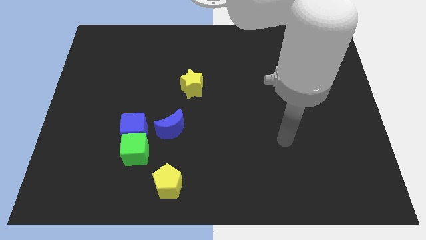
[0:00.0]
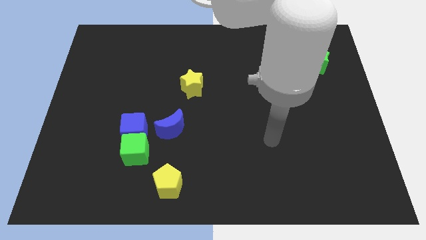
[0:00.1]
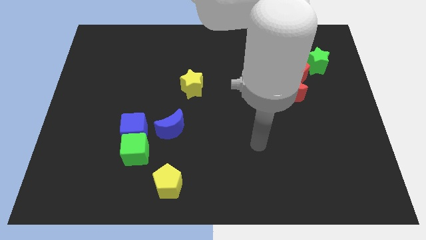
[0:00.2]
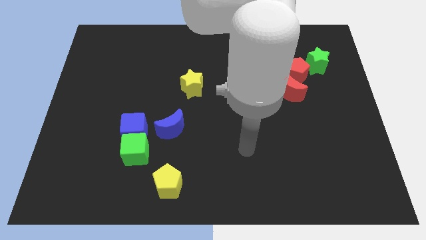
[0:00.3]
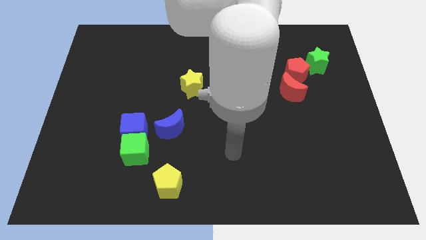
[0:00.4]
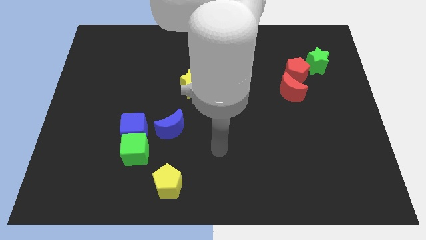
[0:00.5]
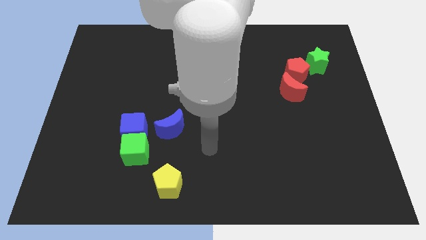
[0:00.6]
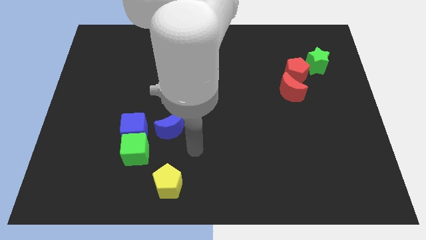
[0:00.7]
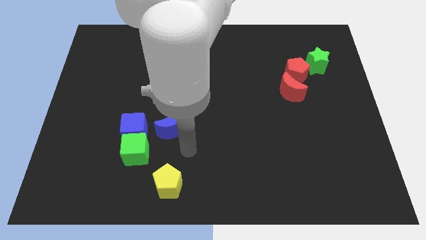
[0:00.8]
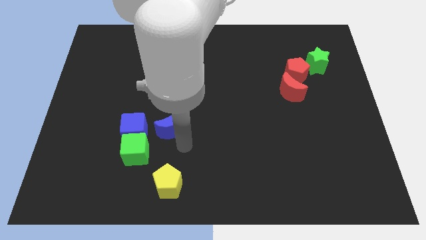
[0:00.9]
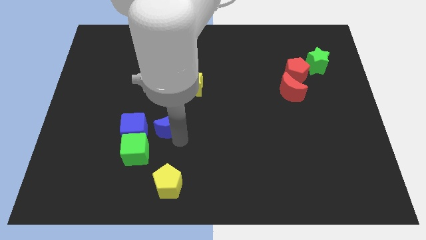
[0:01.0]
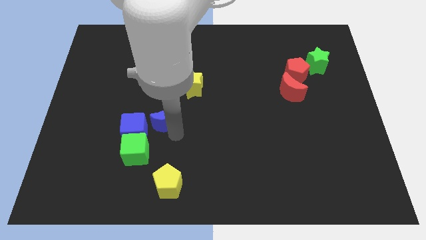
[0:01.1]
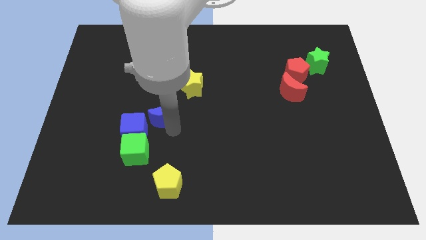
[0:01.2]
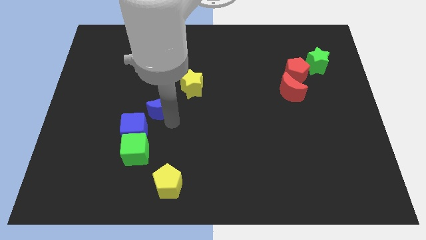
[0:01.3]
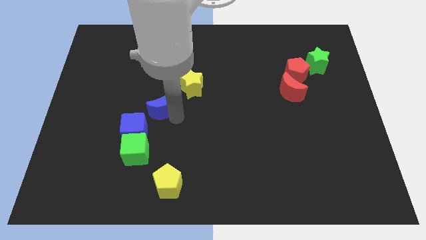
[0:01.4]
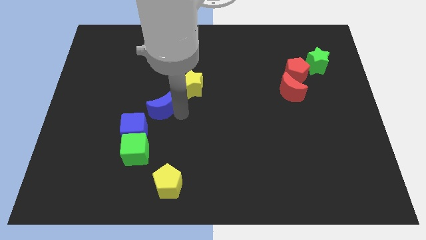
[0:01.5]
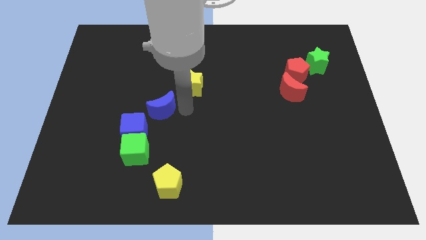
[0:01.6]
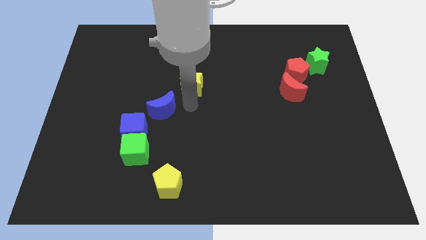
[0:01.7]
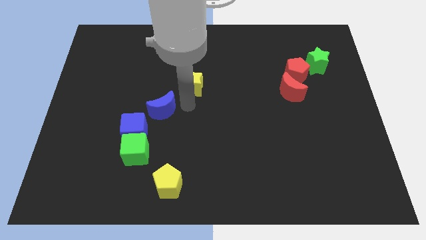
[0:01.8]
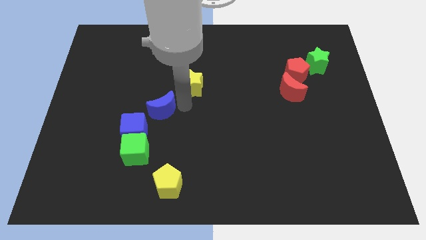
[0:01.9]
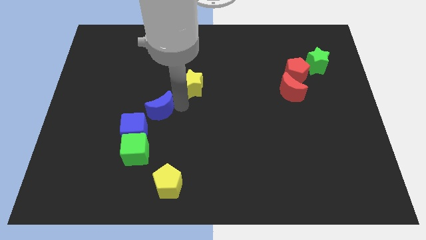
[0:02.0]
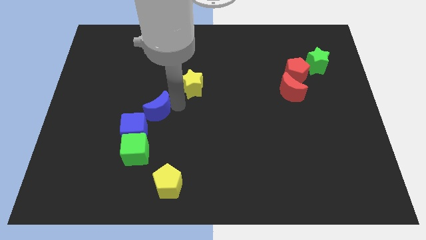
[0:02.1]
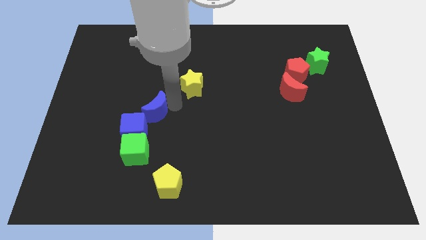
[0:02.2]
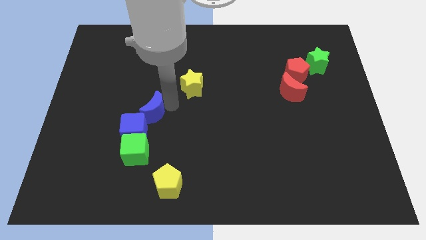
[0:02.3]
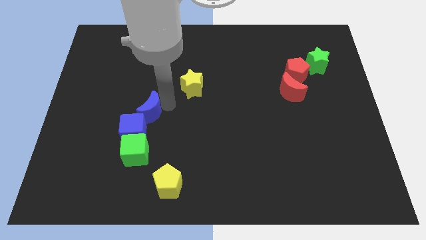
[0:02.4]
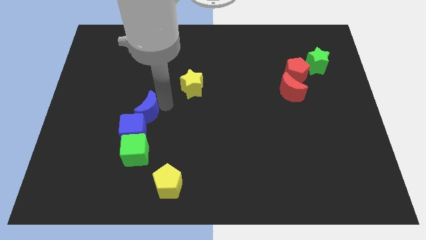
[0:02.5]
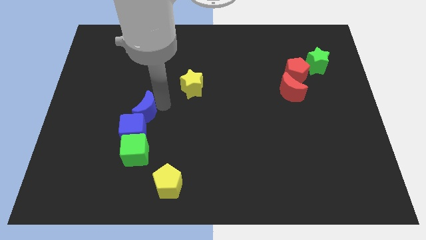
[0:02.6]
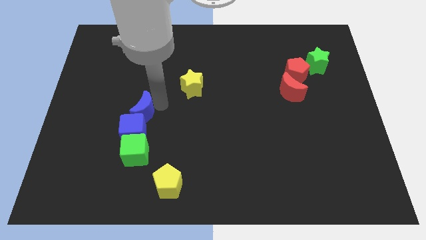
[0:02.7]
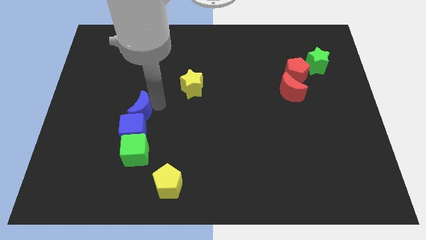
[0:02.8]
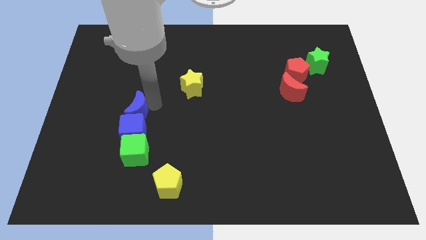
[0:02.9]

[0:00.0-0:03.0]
move the blue moon somewhat to the left

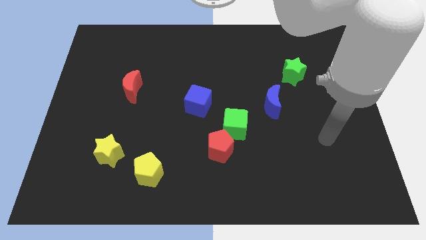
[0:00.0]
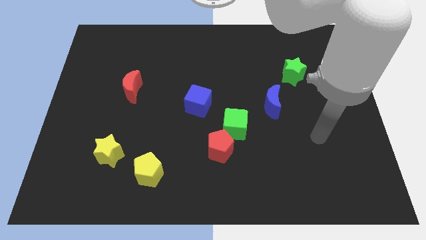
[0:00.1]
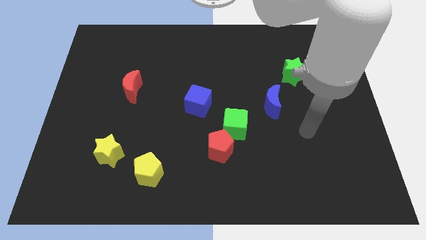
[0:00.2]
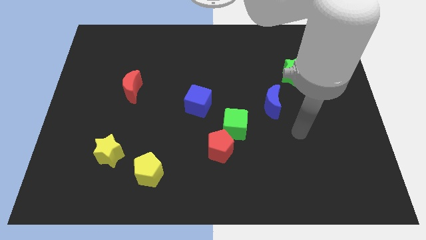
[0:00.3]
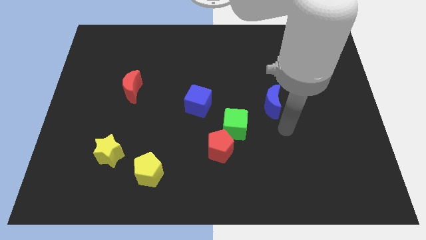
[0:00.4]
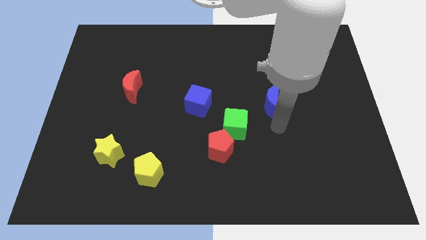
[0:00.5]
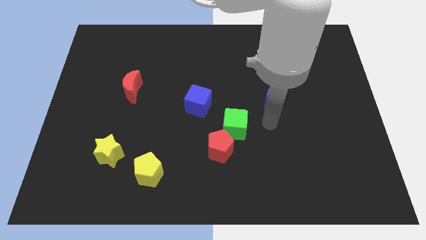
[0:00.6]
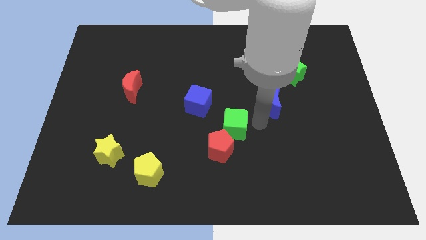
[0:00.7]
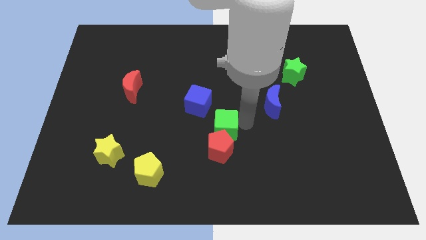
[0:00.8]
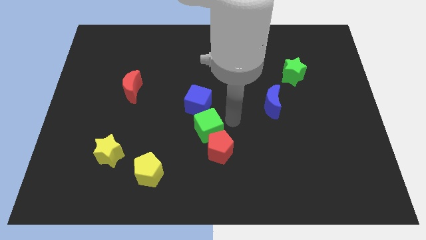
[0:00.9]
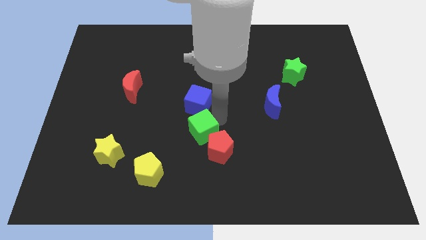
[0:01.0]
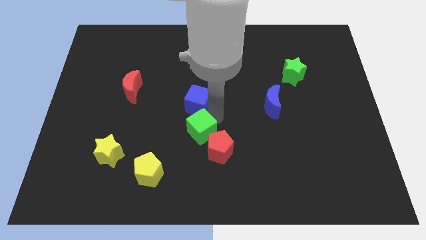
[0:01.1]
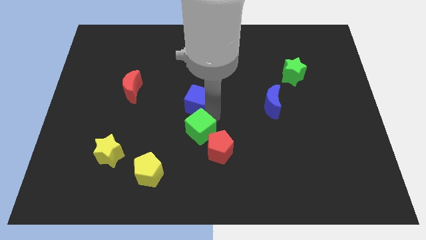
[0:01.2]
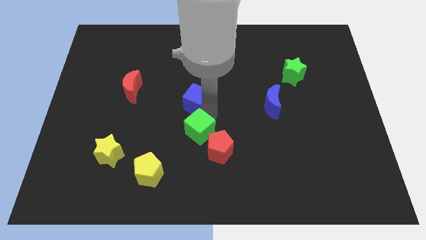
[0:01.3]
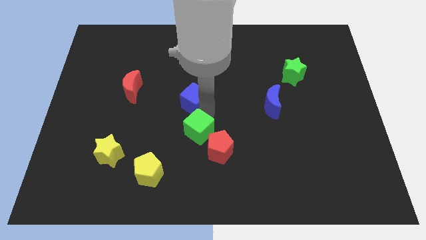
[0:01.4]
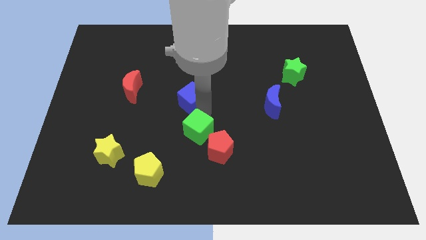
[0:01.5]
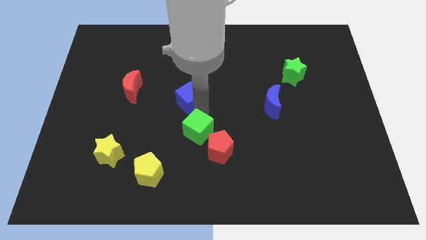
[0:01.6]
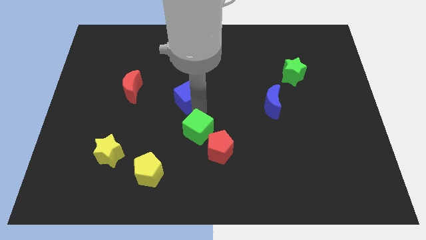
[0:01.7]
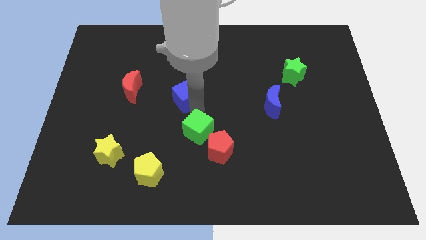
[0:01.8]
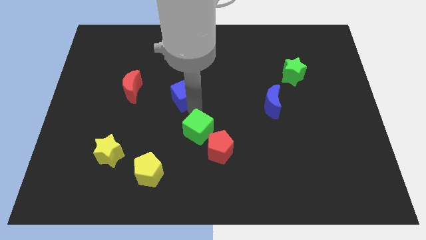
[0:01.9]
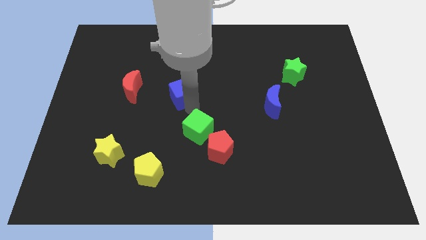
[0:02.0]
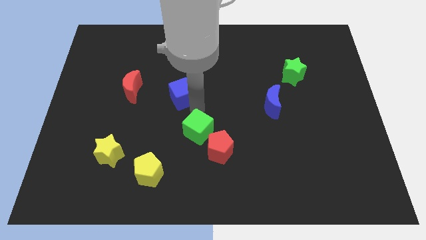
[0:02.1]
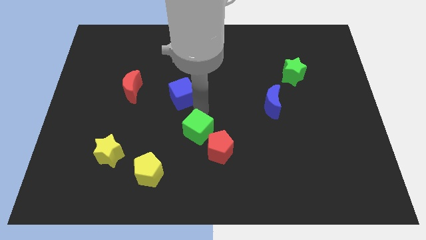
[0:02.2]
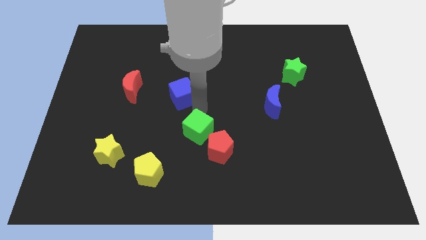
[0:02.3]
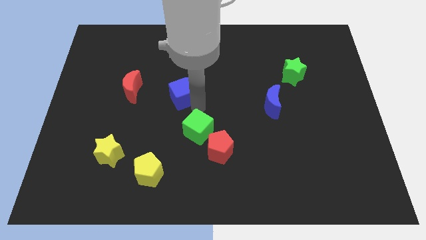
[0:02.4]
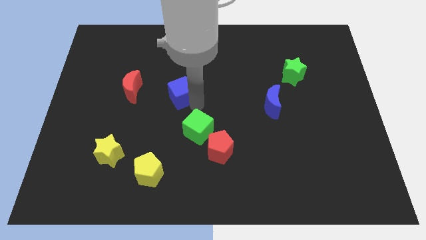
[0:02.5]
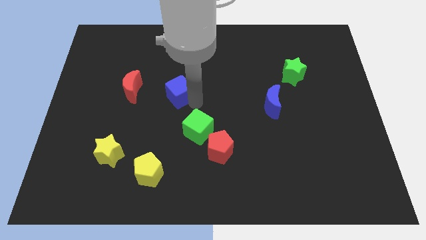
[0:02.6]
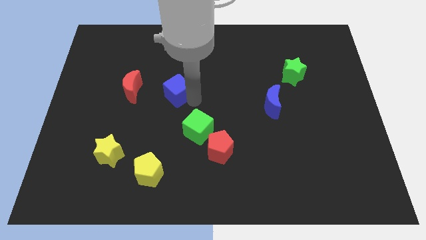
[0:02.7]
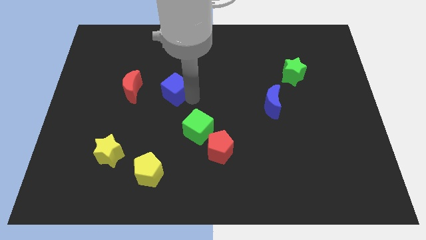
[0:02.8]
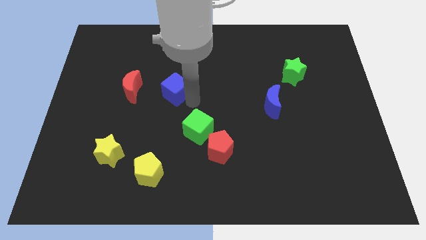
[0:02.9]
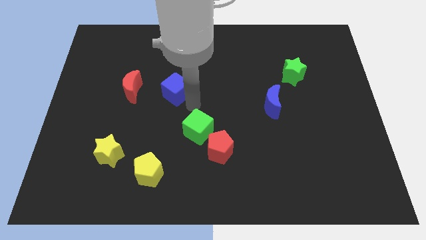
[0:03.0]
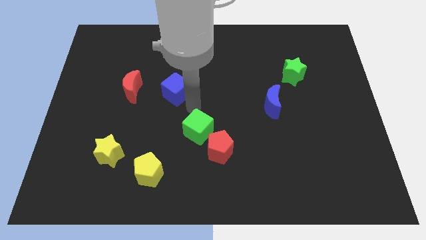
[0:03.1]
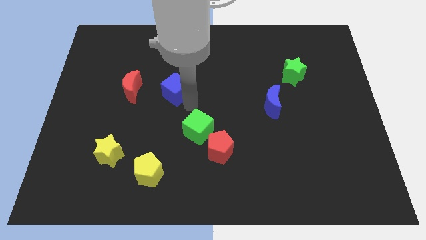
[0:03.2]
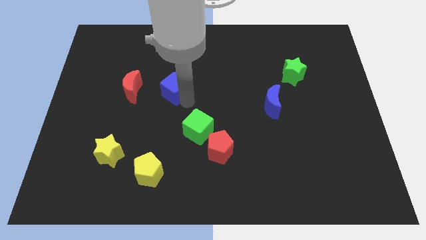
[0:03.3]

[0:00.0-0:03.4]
push the blue cube slightly diagonally up and left

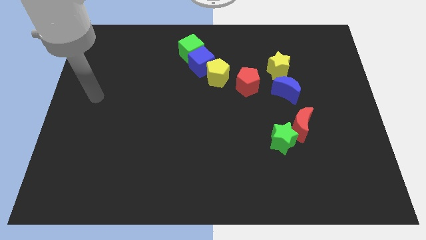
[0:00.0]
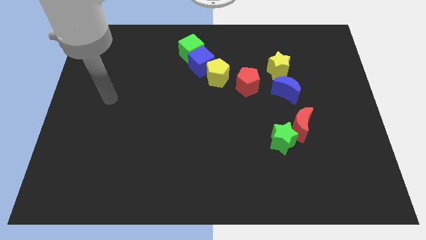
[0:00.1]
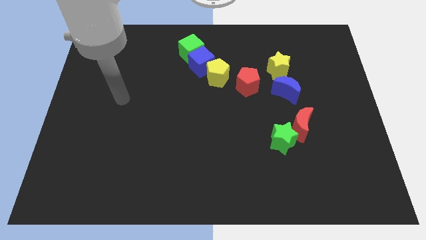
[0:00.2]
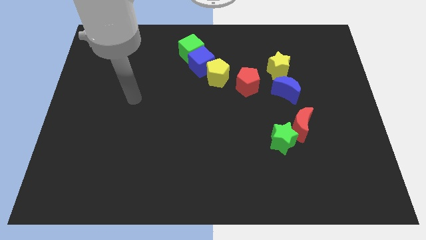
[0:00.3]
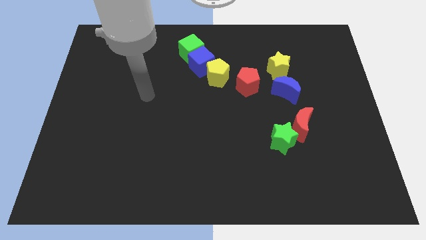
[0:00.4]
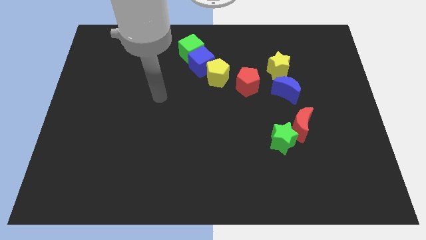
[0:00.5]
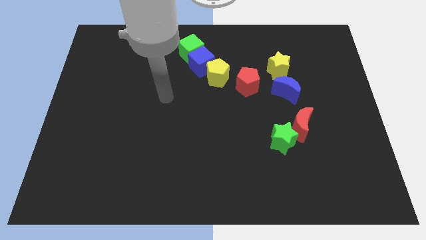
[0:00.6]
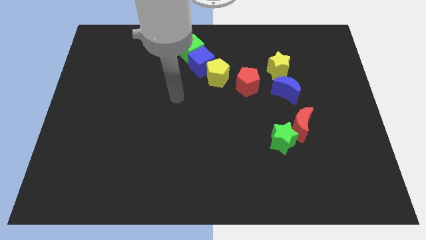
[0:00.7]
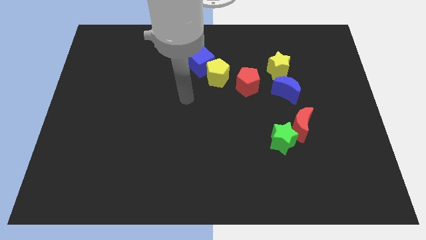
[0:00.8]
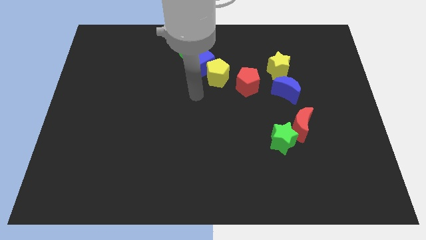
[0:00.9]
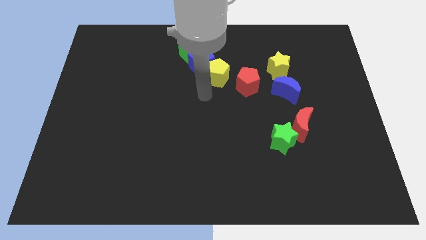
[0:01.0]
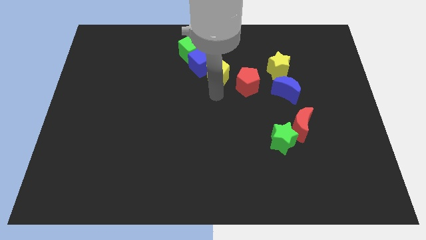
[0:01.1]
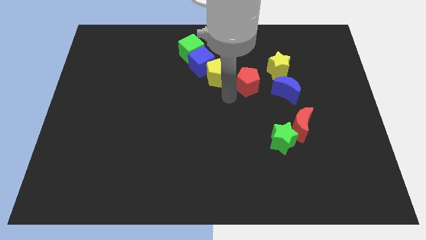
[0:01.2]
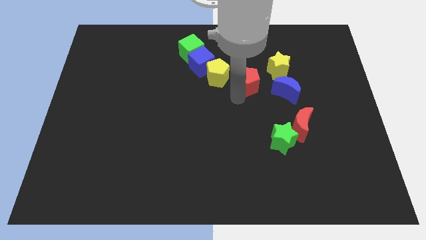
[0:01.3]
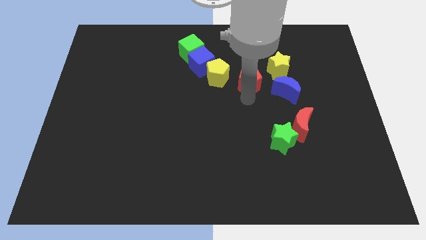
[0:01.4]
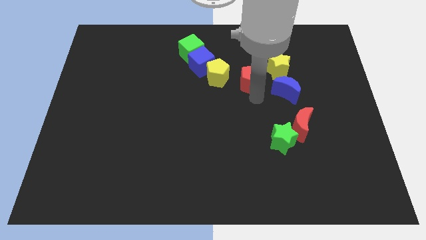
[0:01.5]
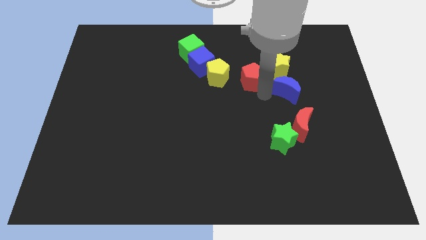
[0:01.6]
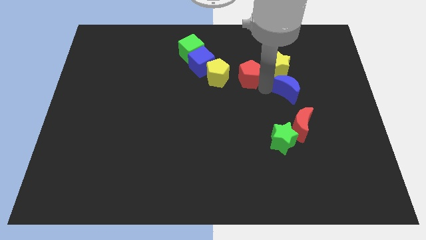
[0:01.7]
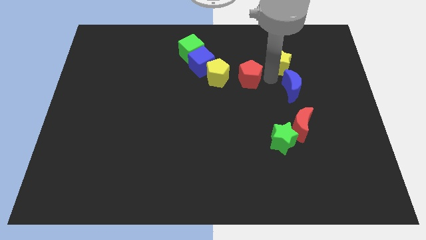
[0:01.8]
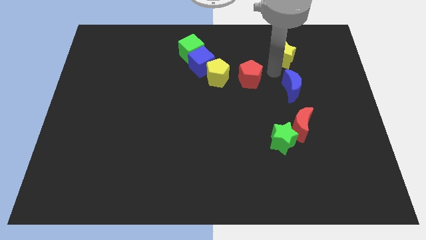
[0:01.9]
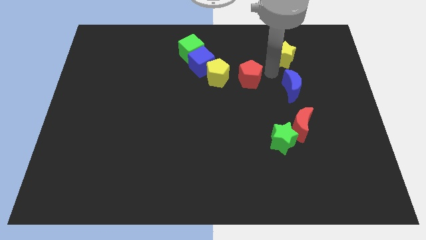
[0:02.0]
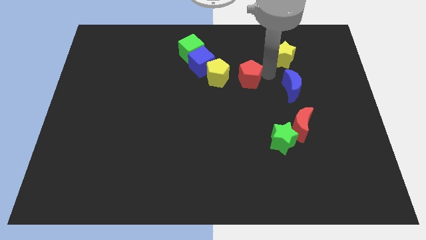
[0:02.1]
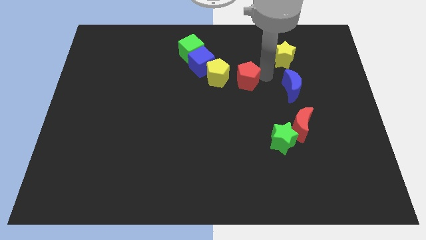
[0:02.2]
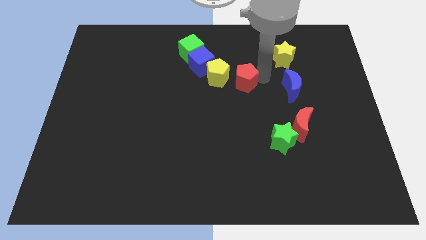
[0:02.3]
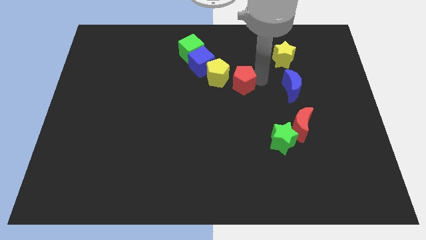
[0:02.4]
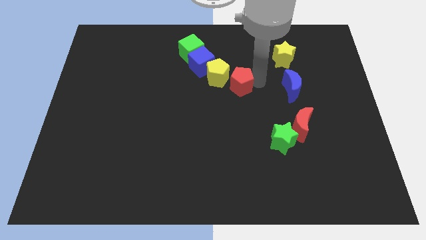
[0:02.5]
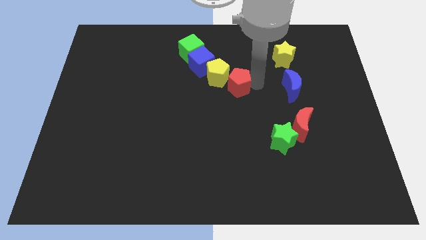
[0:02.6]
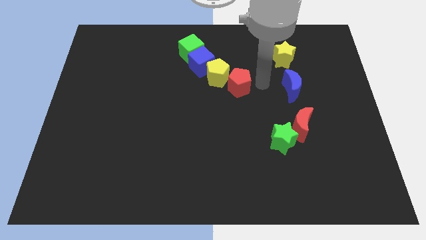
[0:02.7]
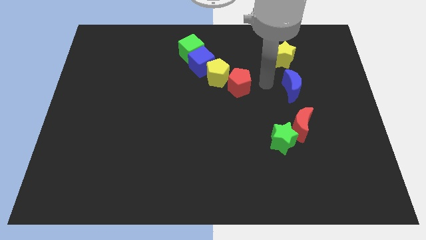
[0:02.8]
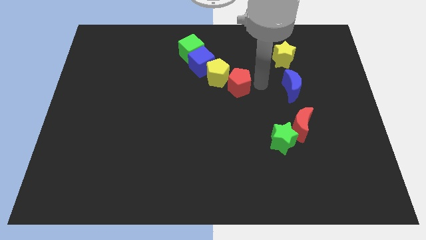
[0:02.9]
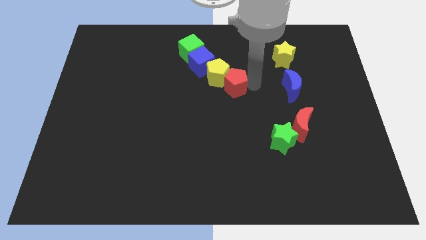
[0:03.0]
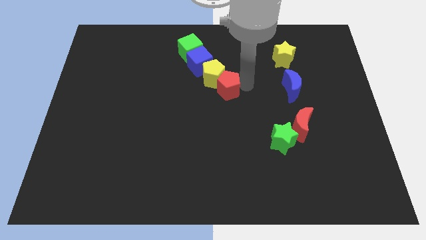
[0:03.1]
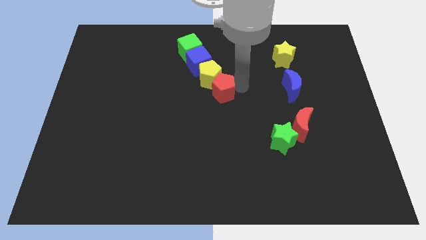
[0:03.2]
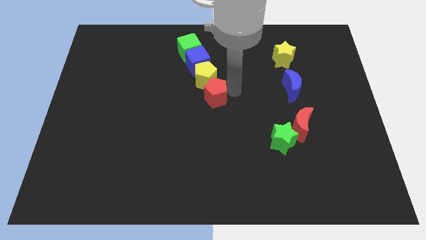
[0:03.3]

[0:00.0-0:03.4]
move the red pentagon slightly left
